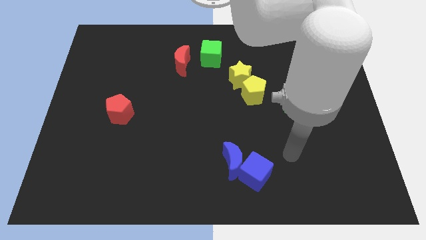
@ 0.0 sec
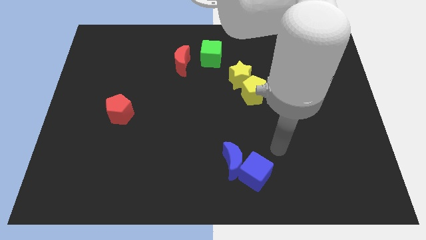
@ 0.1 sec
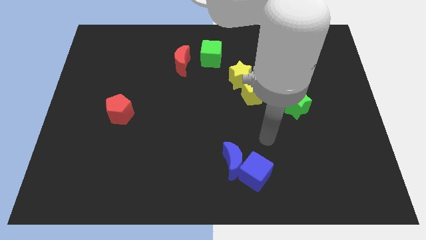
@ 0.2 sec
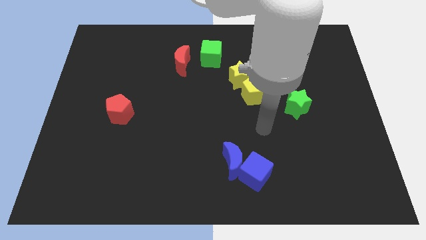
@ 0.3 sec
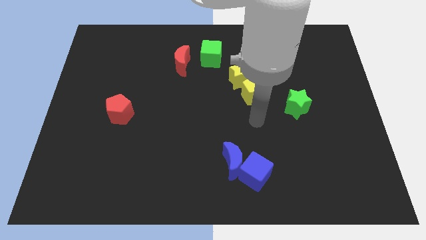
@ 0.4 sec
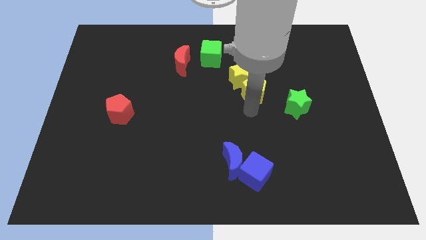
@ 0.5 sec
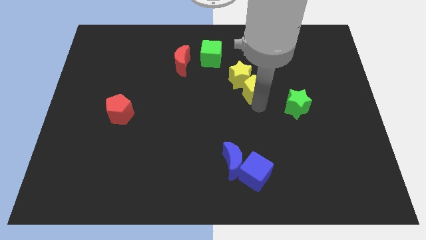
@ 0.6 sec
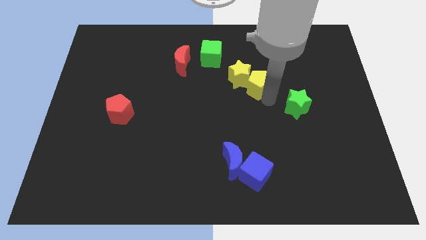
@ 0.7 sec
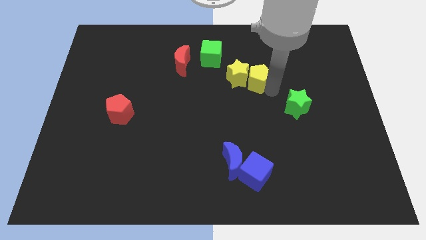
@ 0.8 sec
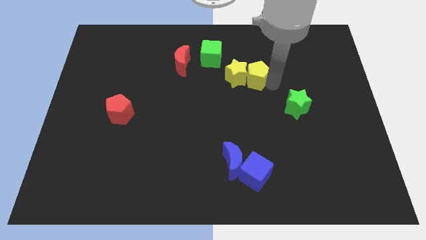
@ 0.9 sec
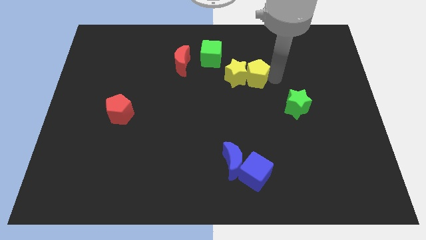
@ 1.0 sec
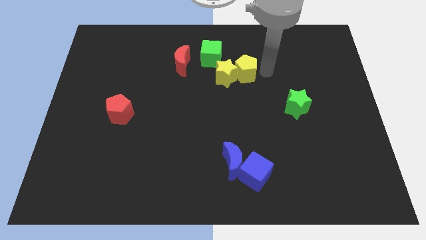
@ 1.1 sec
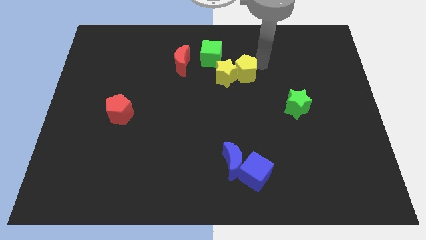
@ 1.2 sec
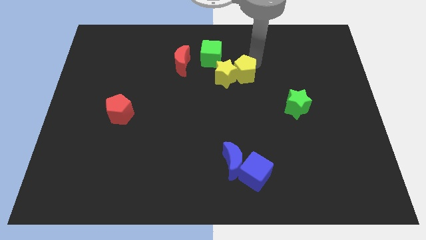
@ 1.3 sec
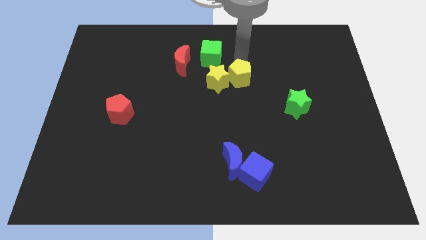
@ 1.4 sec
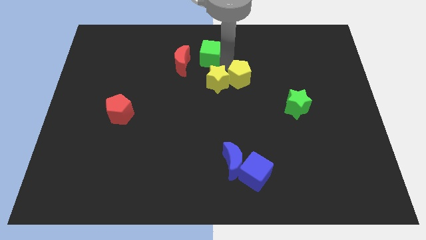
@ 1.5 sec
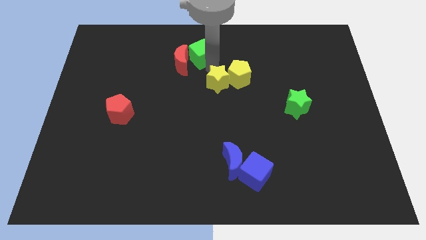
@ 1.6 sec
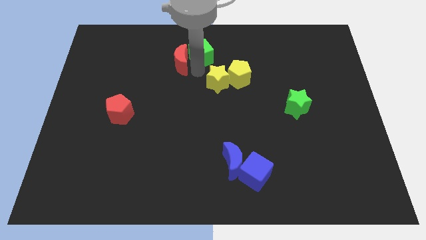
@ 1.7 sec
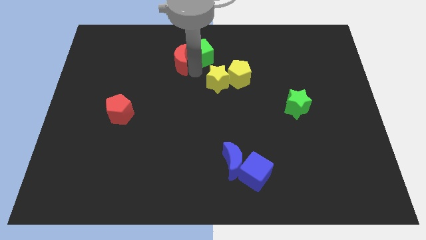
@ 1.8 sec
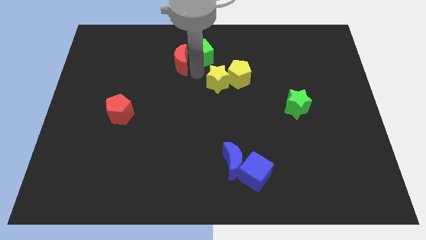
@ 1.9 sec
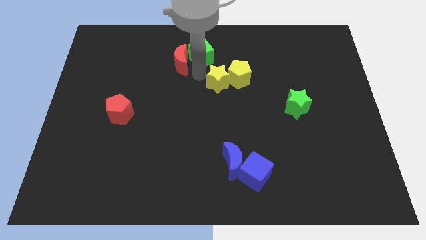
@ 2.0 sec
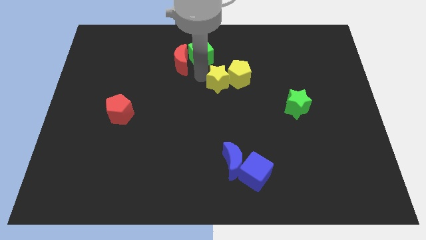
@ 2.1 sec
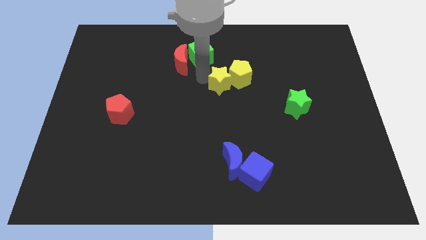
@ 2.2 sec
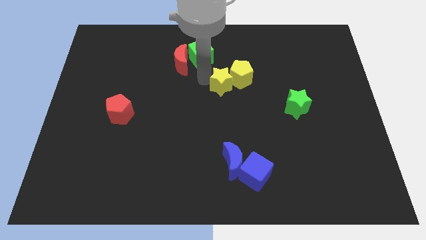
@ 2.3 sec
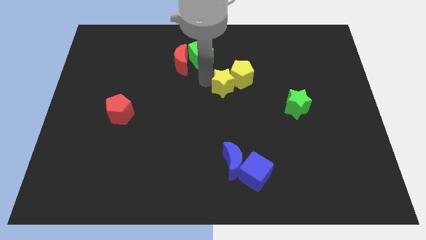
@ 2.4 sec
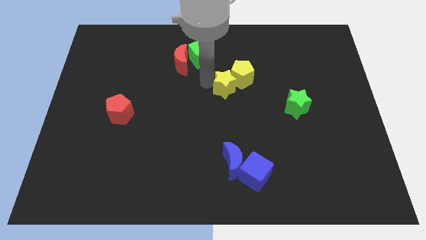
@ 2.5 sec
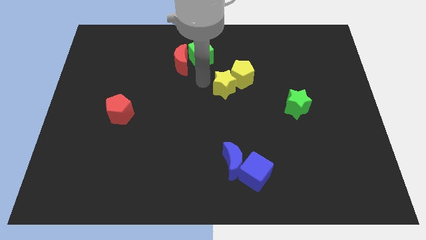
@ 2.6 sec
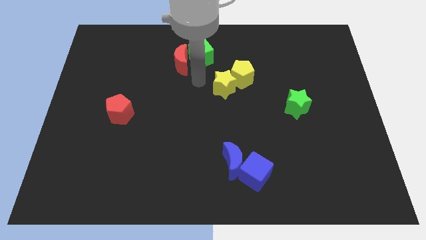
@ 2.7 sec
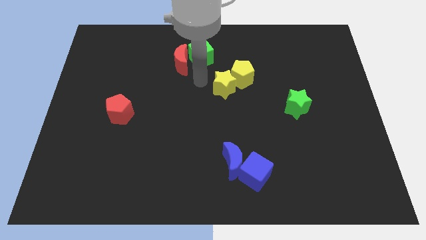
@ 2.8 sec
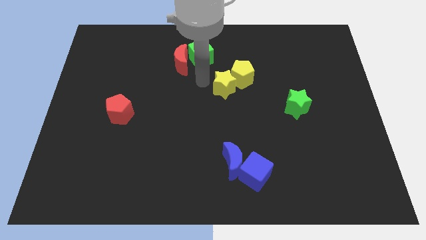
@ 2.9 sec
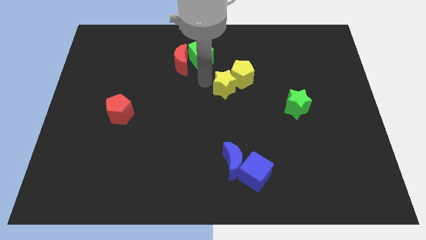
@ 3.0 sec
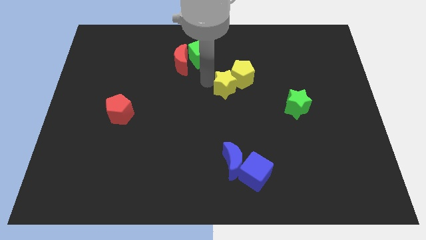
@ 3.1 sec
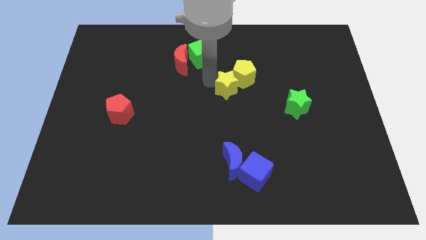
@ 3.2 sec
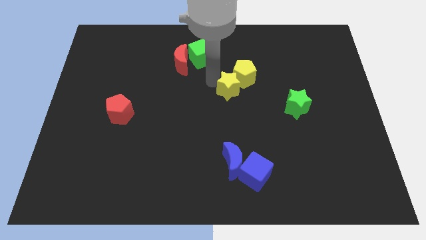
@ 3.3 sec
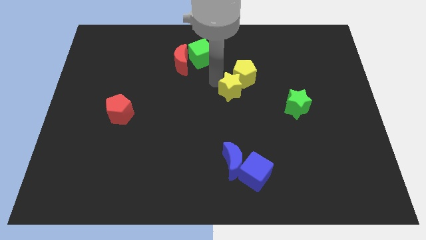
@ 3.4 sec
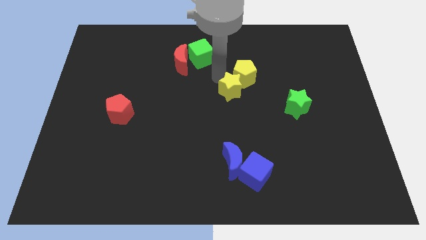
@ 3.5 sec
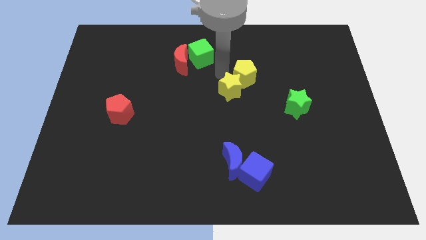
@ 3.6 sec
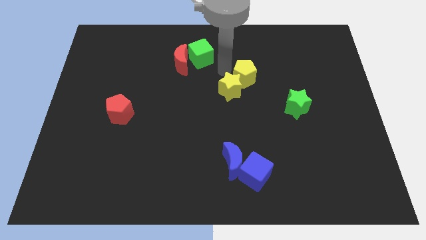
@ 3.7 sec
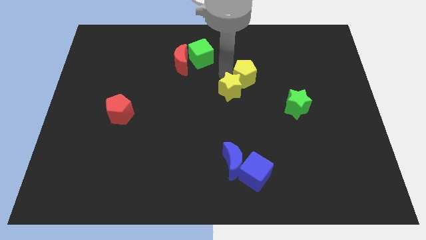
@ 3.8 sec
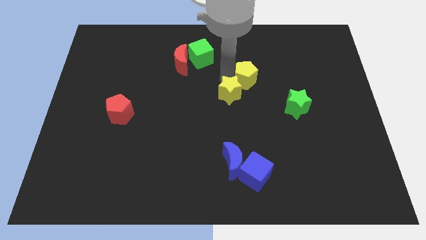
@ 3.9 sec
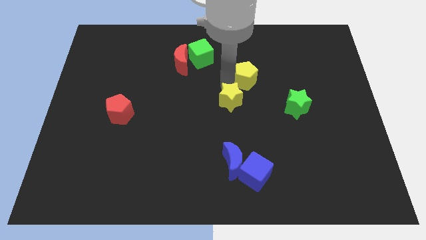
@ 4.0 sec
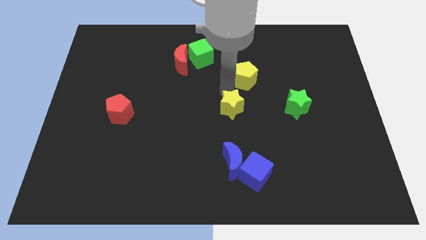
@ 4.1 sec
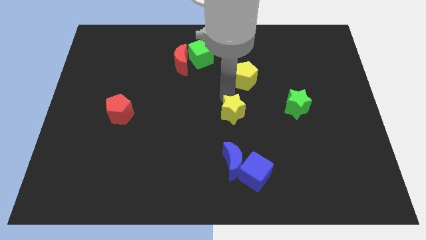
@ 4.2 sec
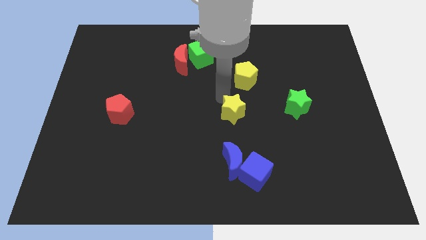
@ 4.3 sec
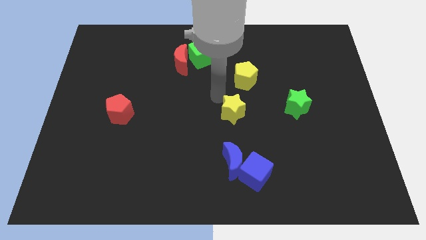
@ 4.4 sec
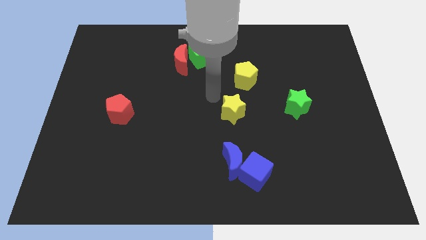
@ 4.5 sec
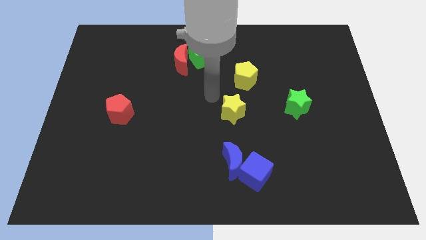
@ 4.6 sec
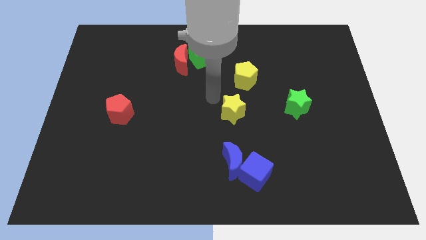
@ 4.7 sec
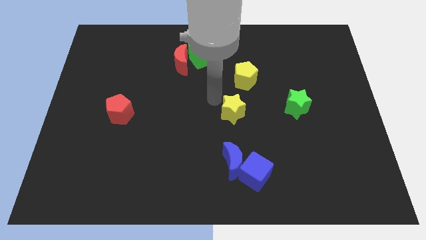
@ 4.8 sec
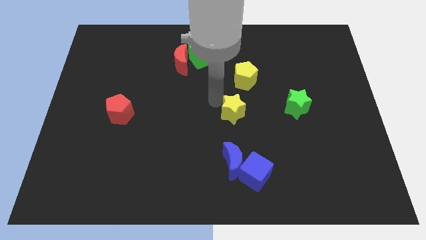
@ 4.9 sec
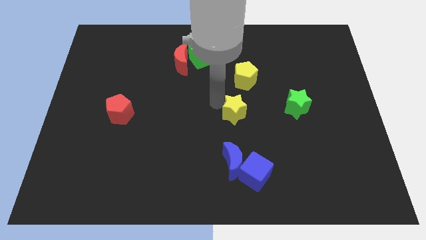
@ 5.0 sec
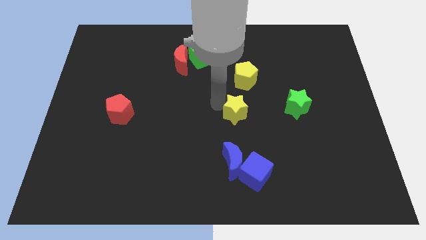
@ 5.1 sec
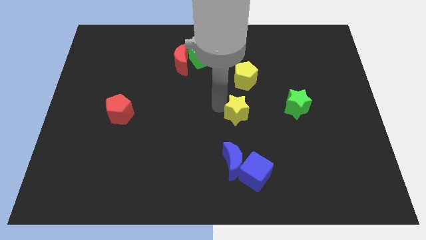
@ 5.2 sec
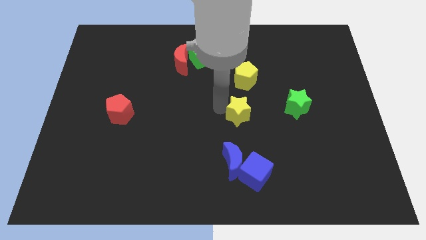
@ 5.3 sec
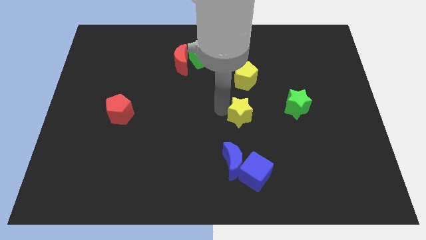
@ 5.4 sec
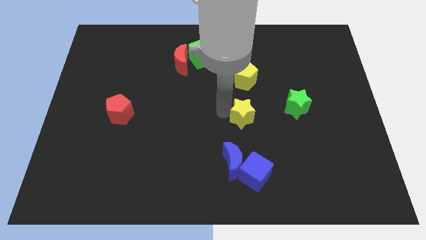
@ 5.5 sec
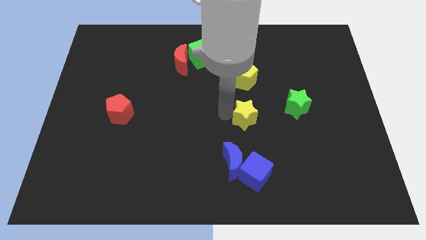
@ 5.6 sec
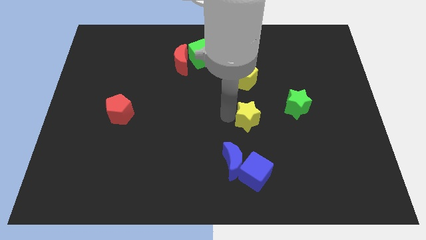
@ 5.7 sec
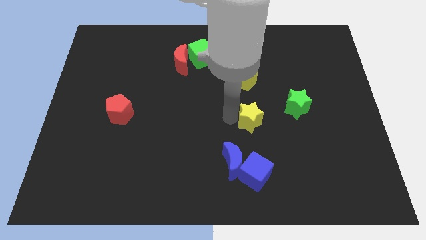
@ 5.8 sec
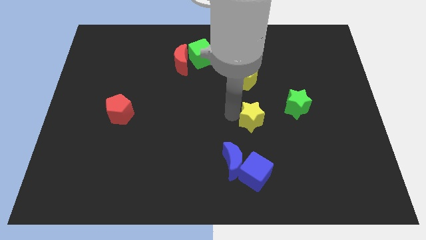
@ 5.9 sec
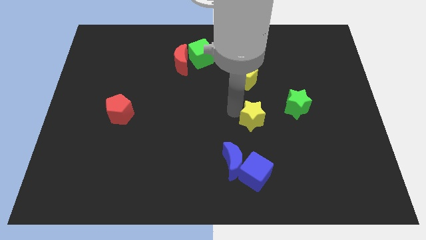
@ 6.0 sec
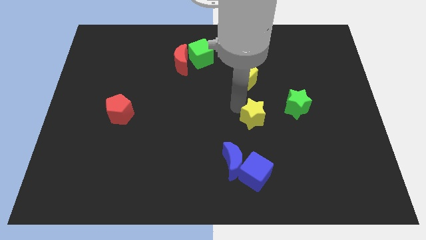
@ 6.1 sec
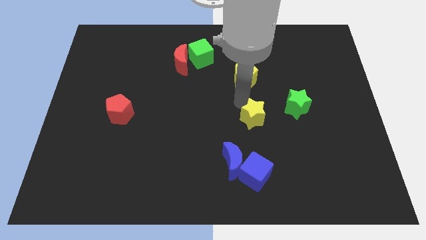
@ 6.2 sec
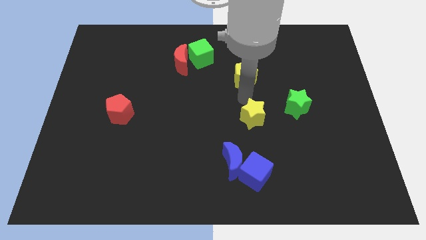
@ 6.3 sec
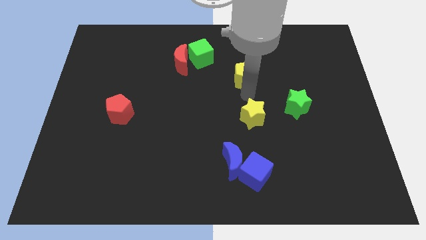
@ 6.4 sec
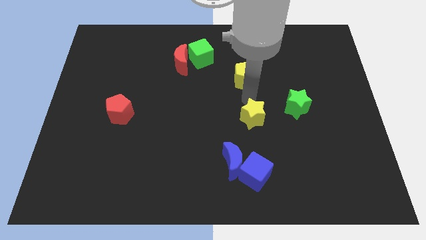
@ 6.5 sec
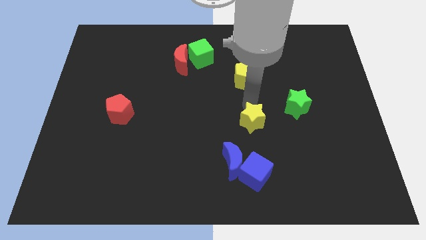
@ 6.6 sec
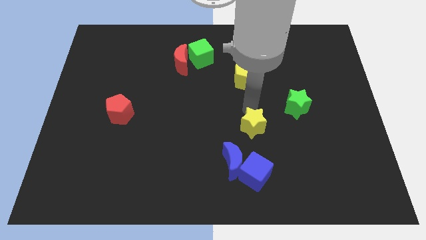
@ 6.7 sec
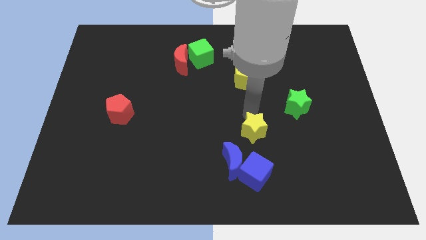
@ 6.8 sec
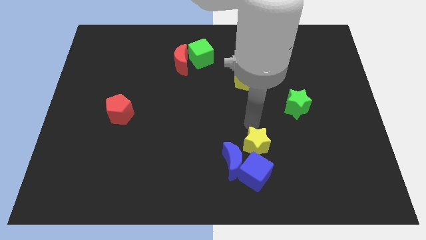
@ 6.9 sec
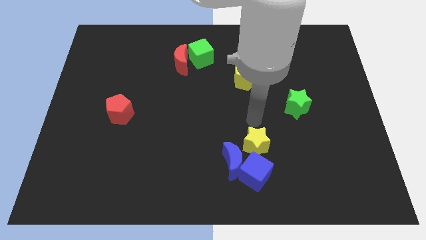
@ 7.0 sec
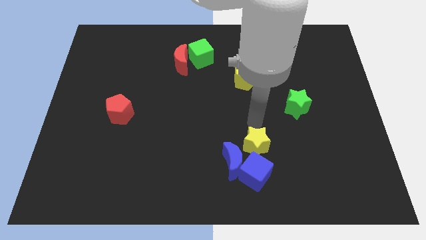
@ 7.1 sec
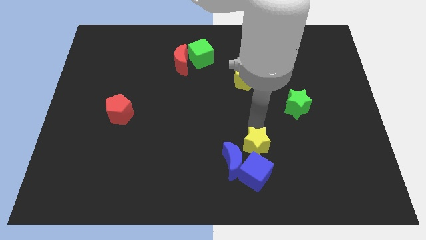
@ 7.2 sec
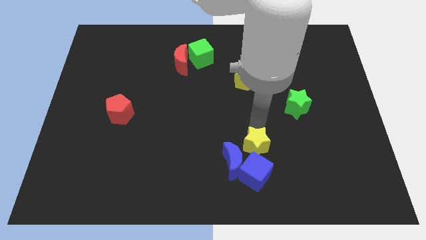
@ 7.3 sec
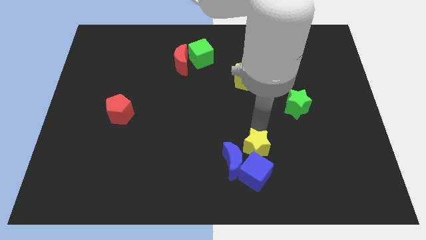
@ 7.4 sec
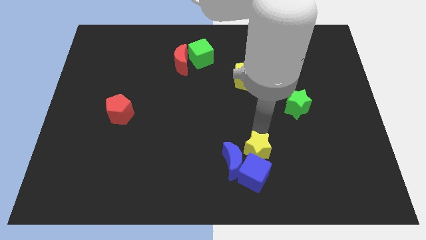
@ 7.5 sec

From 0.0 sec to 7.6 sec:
move the yellow star towards the blue cube

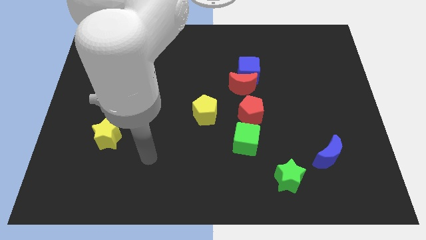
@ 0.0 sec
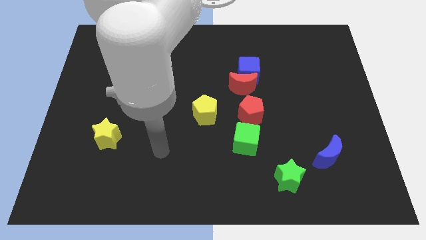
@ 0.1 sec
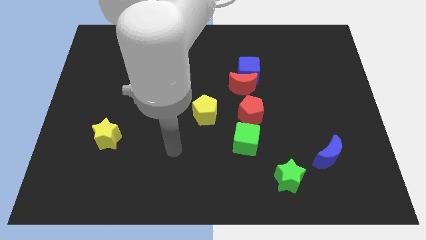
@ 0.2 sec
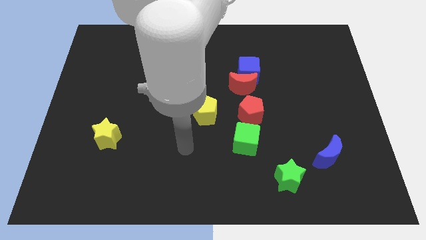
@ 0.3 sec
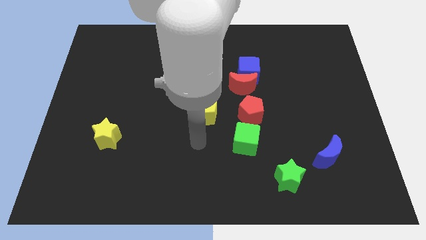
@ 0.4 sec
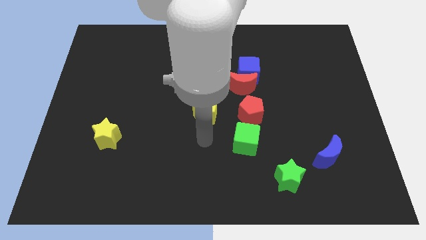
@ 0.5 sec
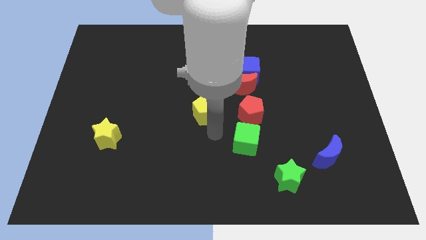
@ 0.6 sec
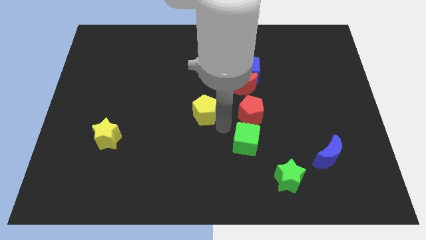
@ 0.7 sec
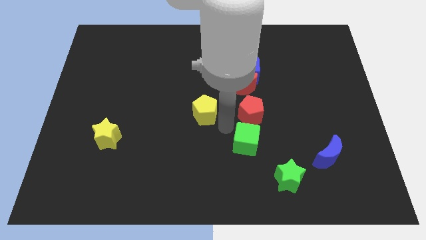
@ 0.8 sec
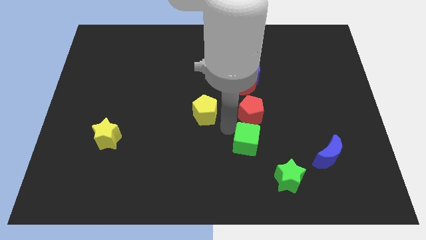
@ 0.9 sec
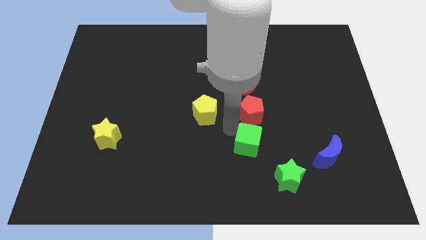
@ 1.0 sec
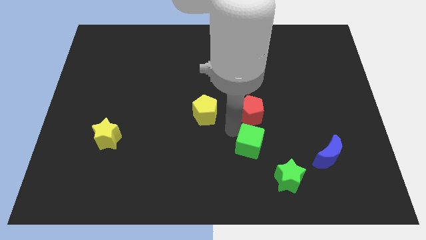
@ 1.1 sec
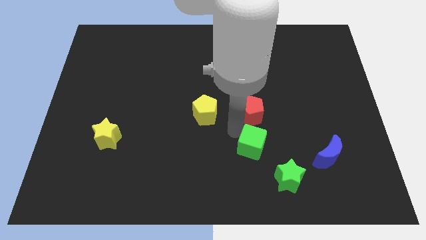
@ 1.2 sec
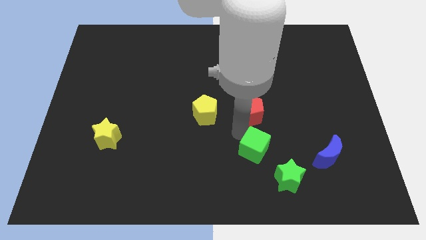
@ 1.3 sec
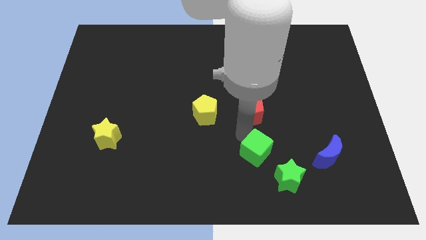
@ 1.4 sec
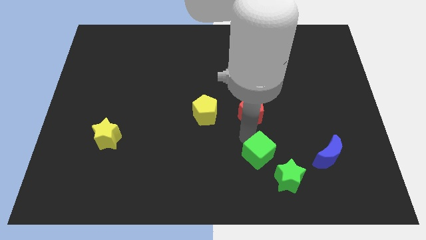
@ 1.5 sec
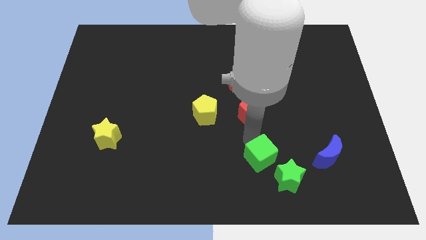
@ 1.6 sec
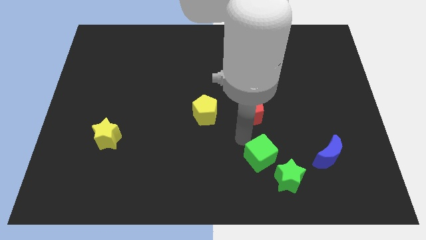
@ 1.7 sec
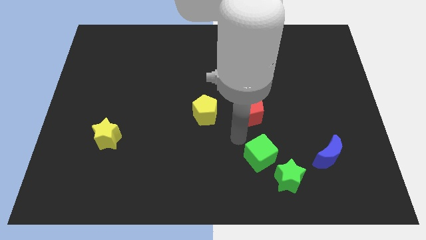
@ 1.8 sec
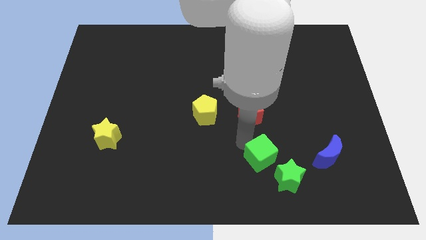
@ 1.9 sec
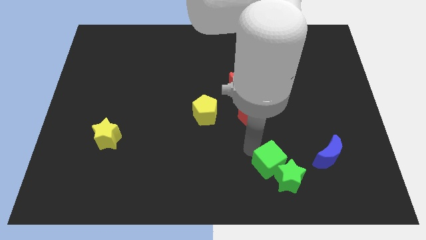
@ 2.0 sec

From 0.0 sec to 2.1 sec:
move the green cube close to the green star
